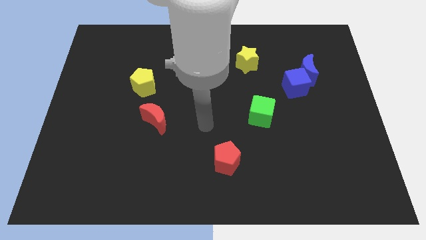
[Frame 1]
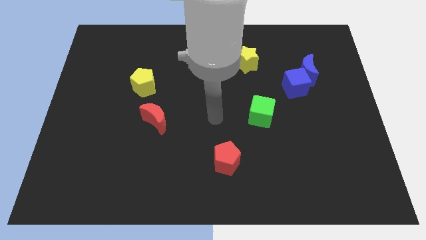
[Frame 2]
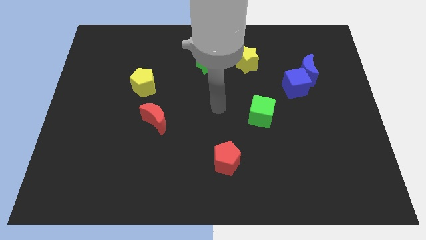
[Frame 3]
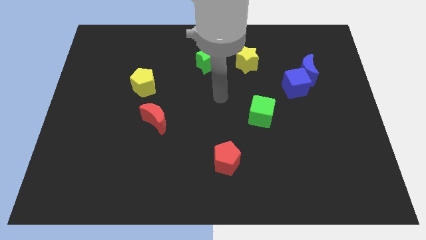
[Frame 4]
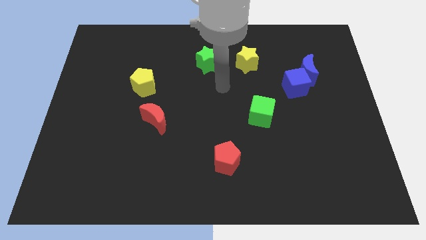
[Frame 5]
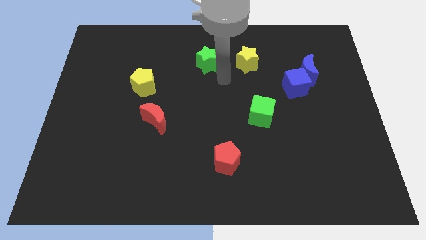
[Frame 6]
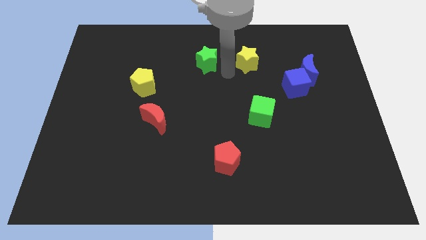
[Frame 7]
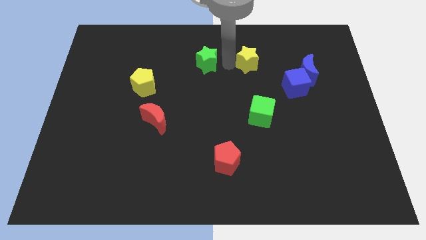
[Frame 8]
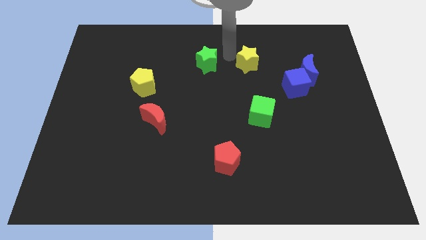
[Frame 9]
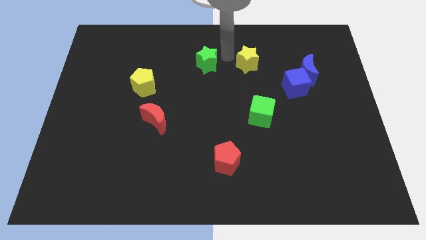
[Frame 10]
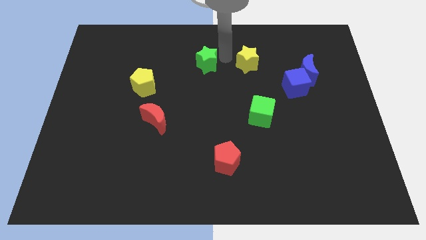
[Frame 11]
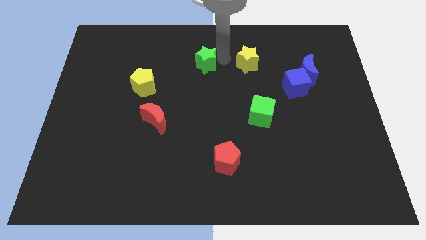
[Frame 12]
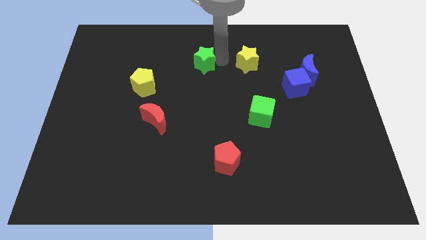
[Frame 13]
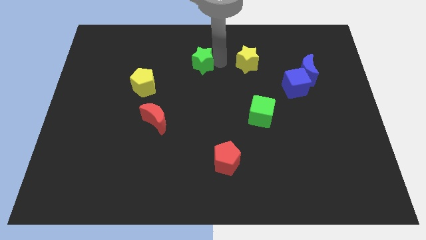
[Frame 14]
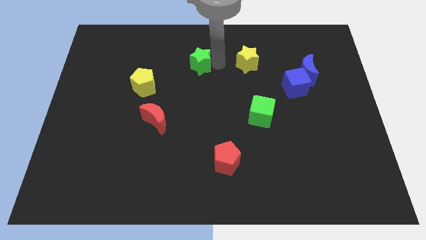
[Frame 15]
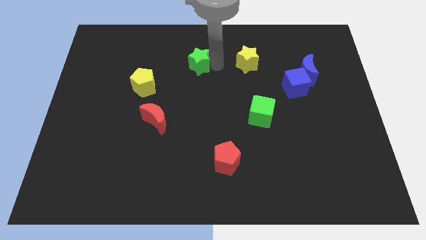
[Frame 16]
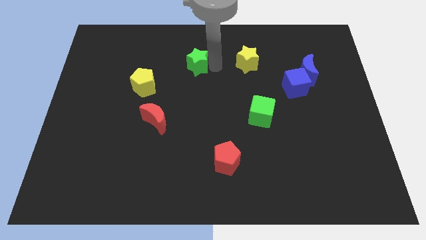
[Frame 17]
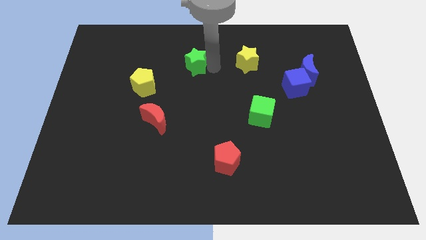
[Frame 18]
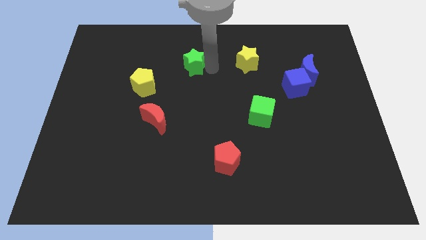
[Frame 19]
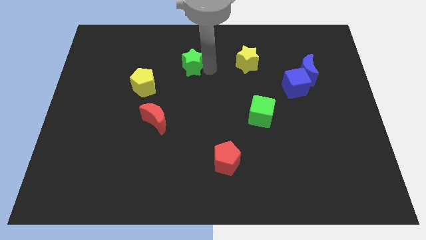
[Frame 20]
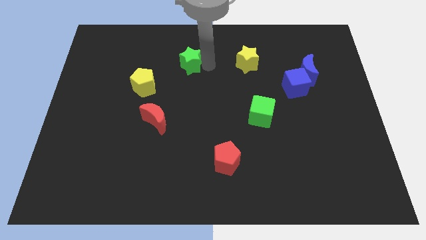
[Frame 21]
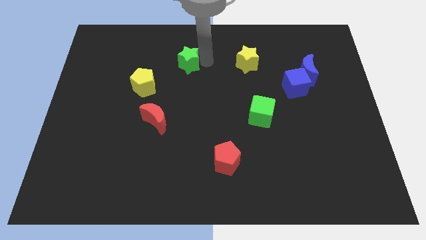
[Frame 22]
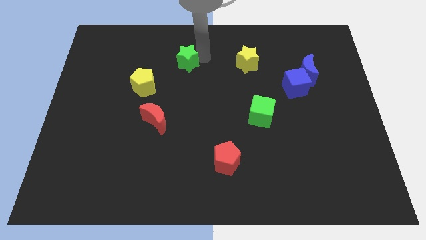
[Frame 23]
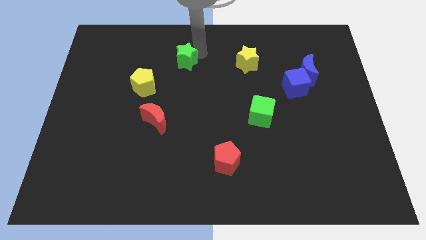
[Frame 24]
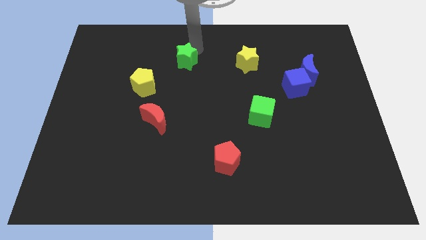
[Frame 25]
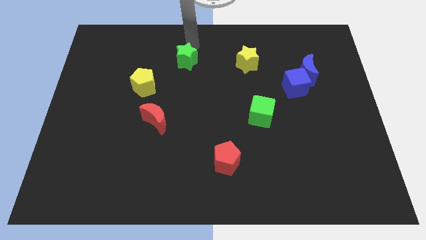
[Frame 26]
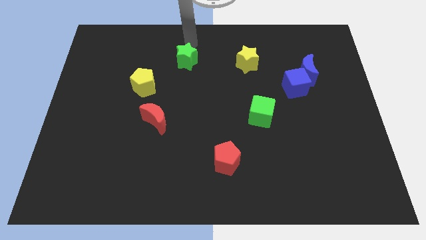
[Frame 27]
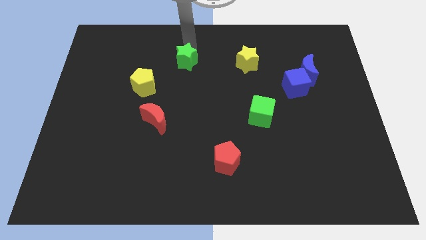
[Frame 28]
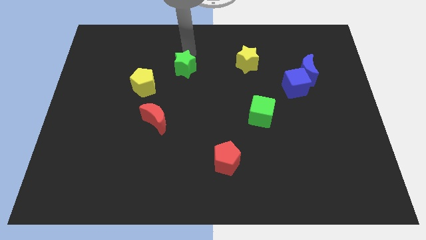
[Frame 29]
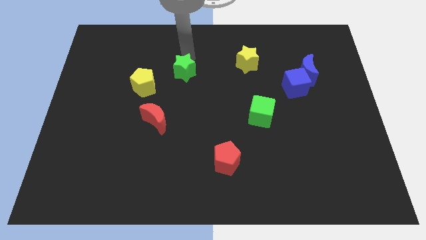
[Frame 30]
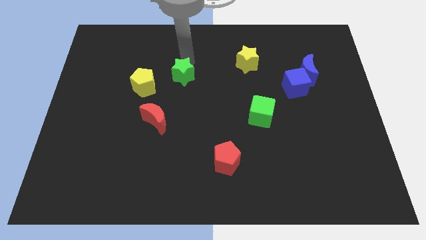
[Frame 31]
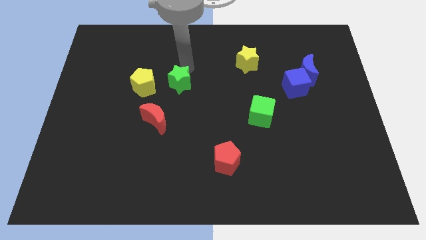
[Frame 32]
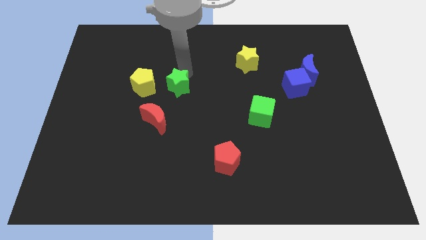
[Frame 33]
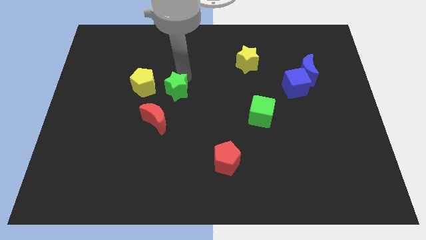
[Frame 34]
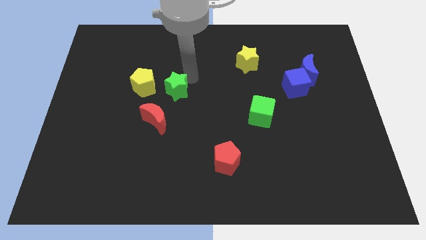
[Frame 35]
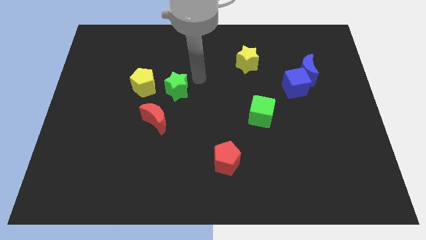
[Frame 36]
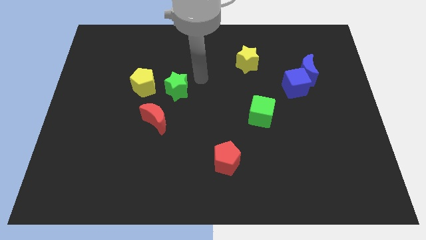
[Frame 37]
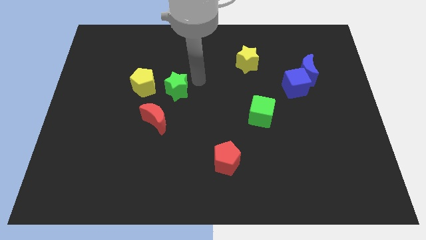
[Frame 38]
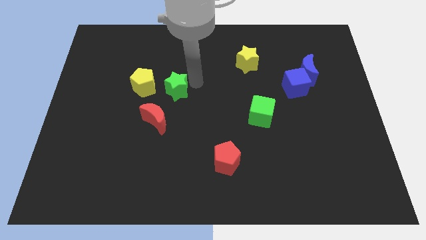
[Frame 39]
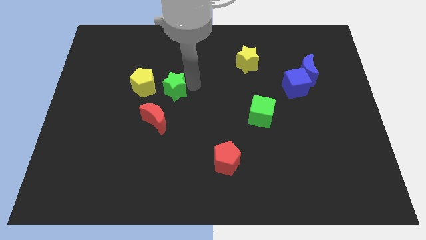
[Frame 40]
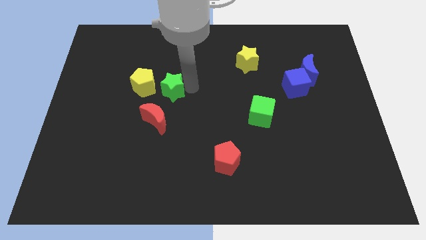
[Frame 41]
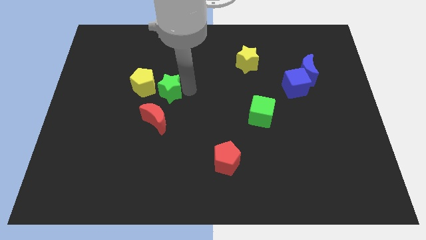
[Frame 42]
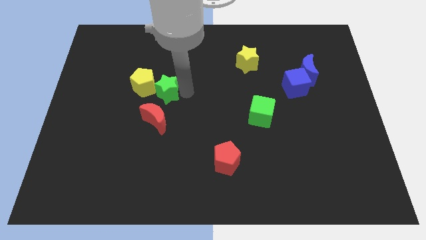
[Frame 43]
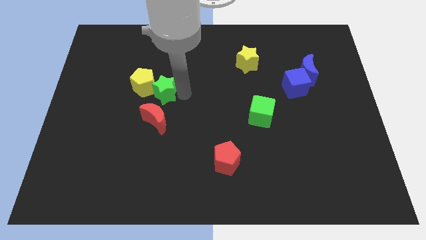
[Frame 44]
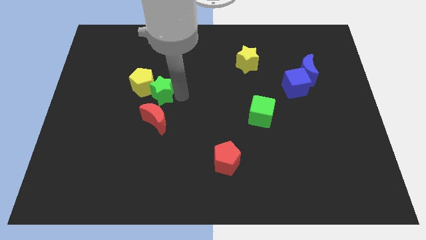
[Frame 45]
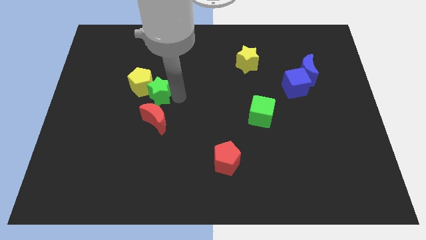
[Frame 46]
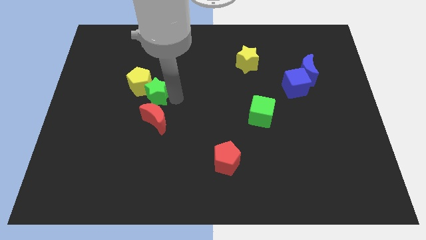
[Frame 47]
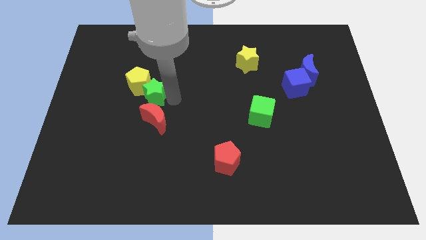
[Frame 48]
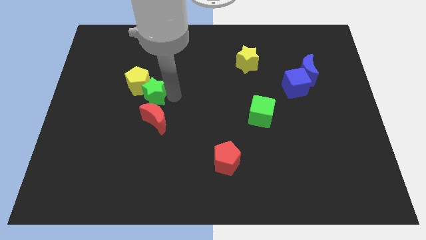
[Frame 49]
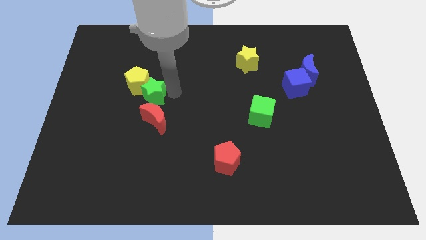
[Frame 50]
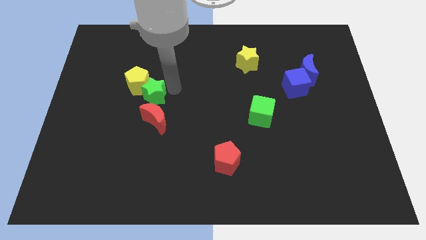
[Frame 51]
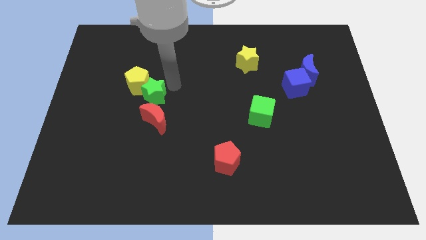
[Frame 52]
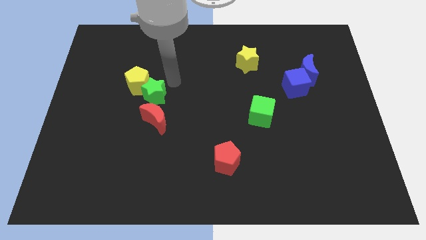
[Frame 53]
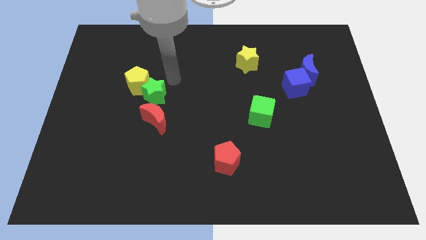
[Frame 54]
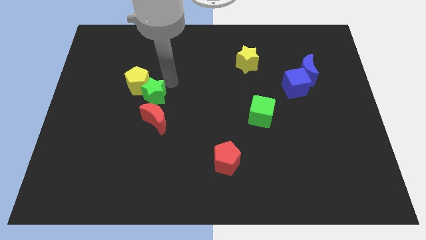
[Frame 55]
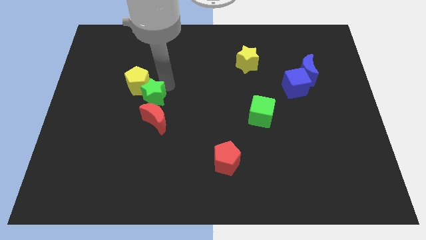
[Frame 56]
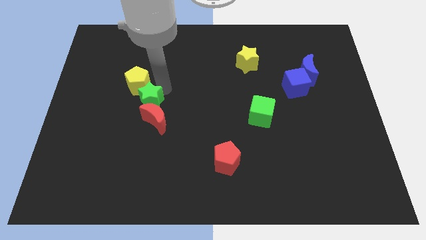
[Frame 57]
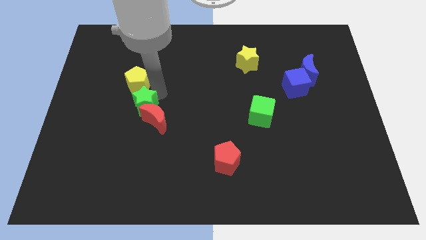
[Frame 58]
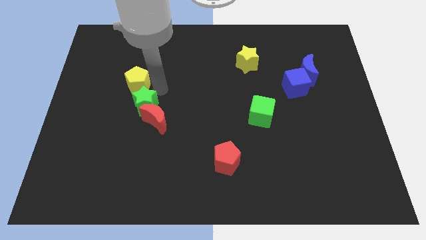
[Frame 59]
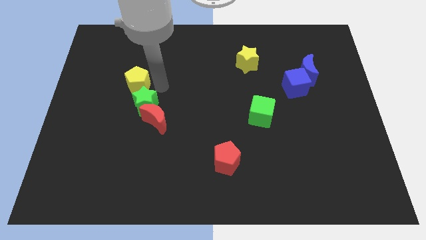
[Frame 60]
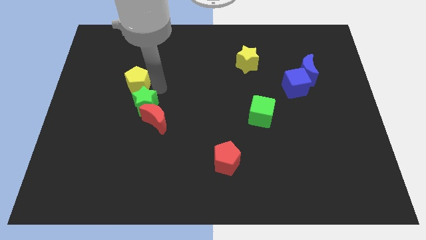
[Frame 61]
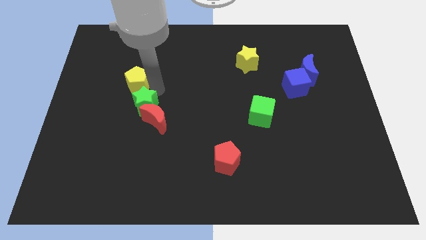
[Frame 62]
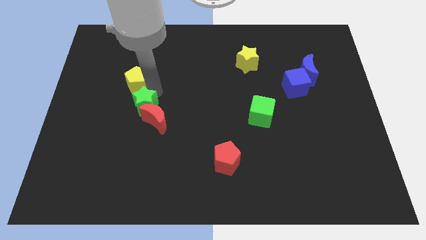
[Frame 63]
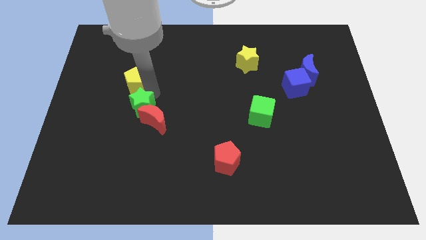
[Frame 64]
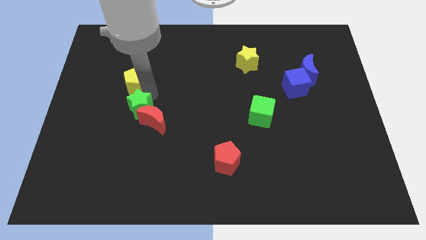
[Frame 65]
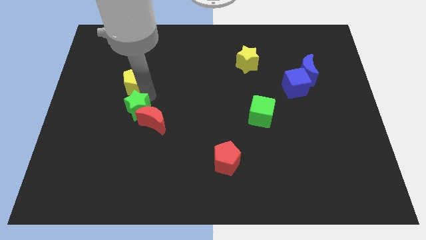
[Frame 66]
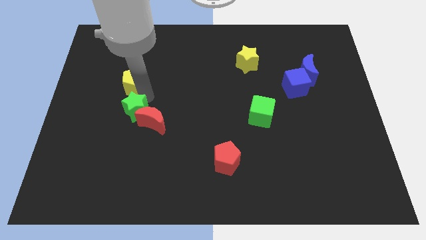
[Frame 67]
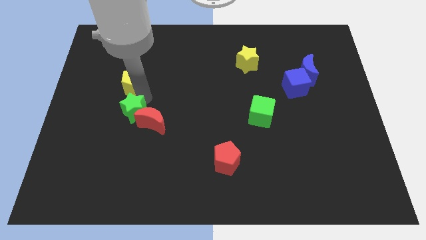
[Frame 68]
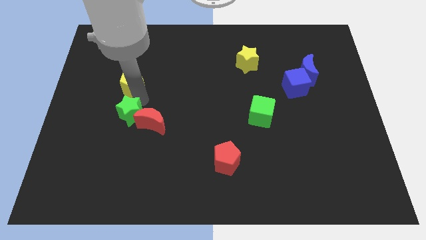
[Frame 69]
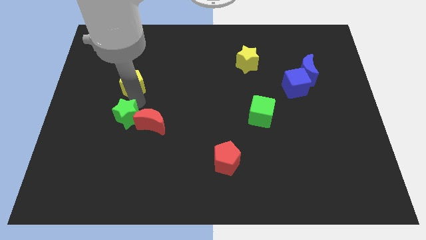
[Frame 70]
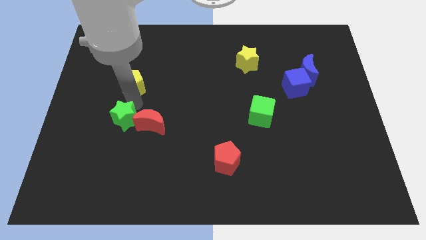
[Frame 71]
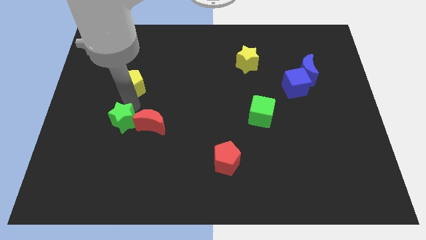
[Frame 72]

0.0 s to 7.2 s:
push the green star to the bottom left of the red moon
